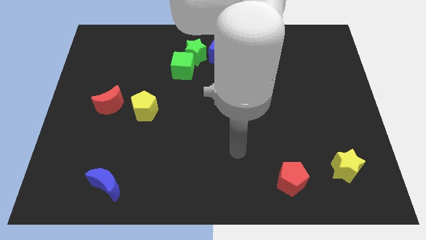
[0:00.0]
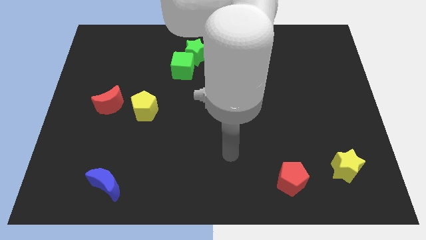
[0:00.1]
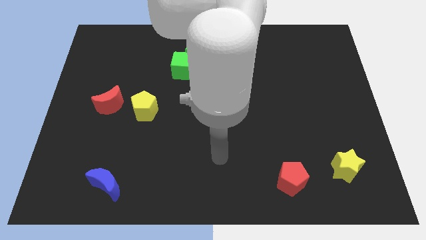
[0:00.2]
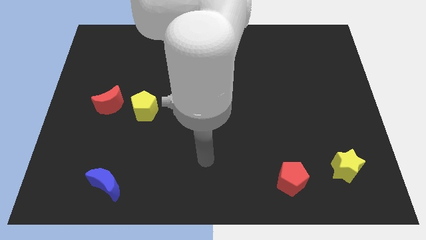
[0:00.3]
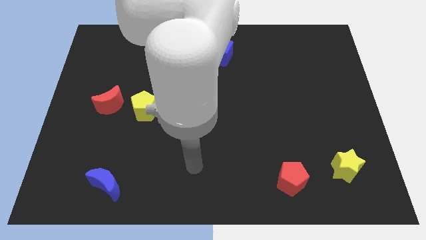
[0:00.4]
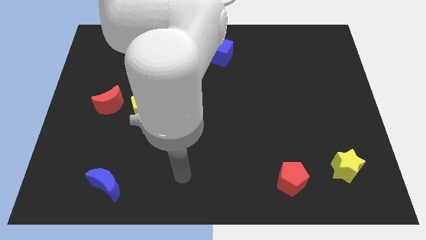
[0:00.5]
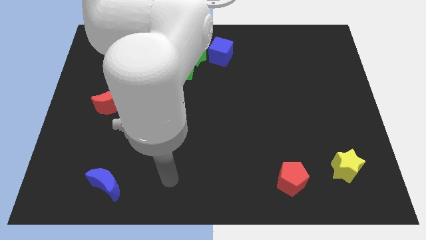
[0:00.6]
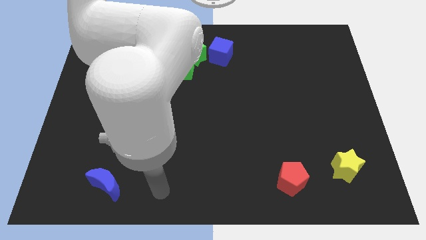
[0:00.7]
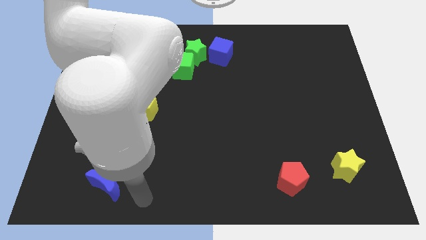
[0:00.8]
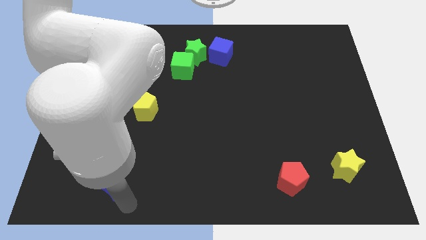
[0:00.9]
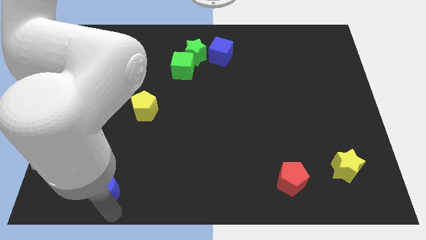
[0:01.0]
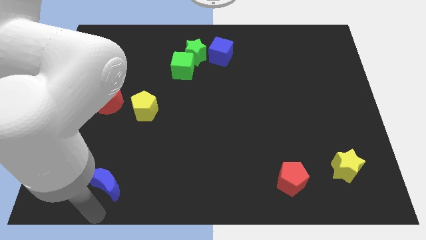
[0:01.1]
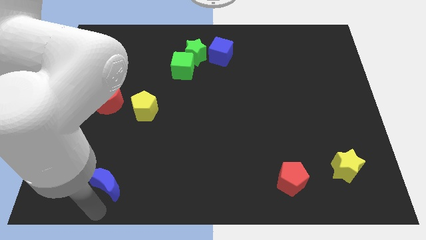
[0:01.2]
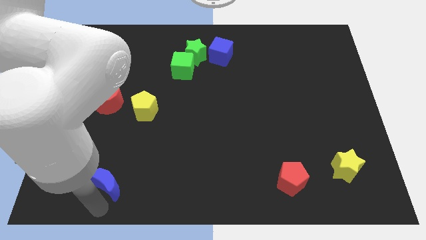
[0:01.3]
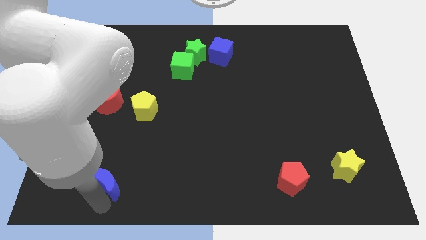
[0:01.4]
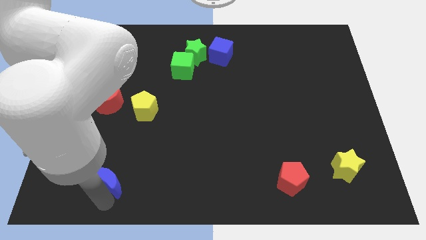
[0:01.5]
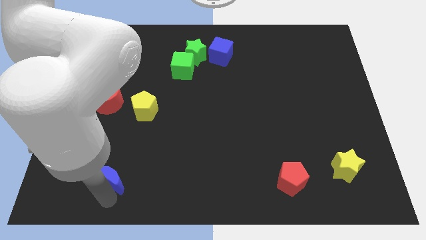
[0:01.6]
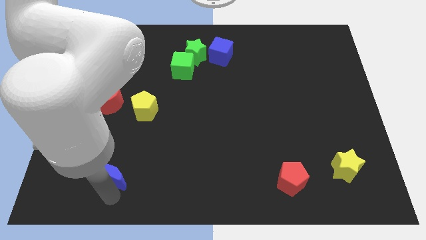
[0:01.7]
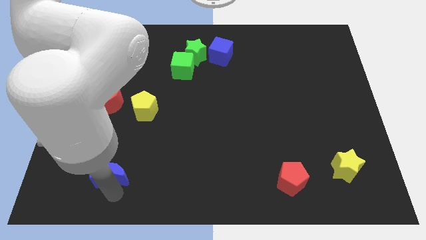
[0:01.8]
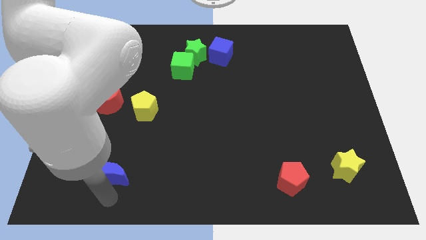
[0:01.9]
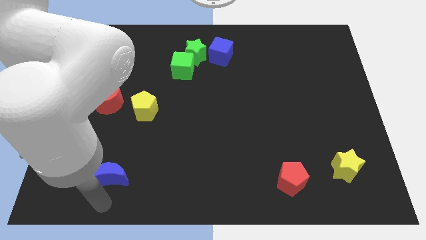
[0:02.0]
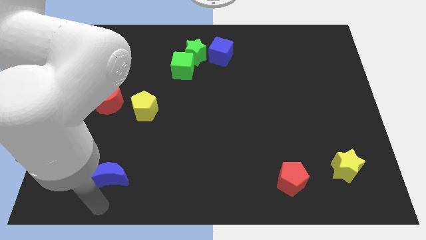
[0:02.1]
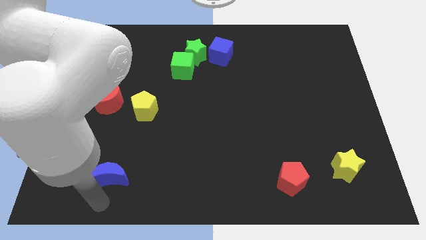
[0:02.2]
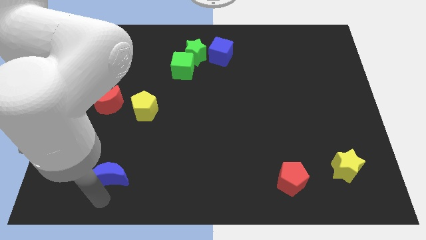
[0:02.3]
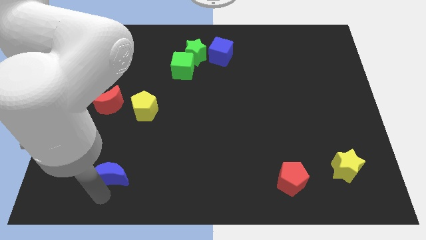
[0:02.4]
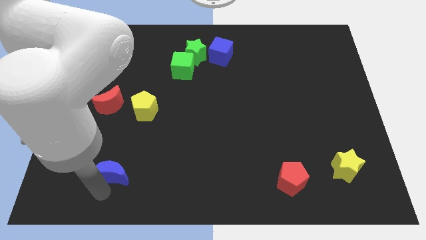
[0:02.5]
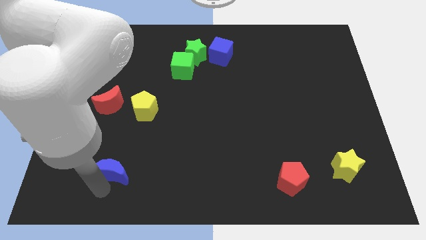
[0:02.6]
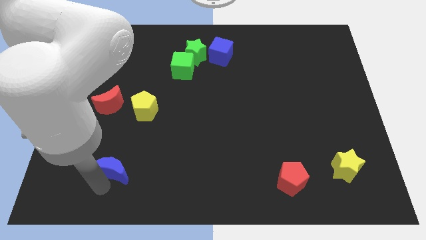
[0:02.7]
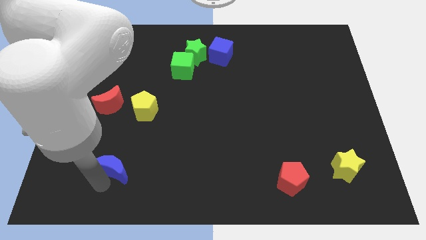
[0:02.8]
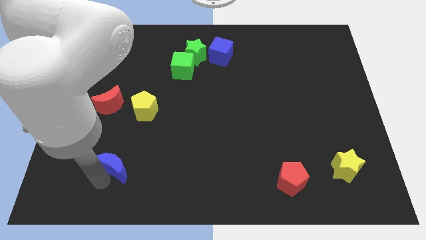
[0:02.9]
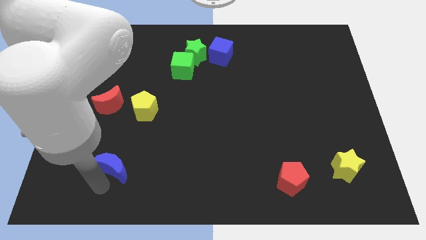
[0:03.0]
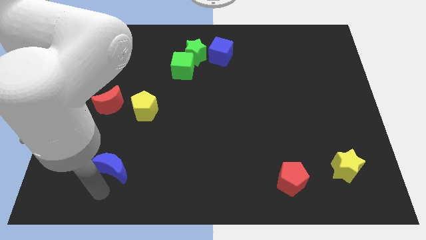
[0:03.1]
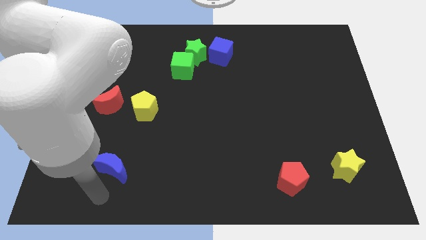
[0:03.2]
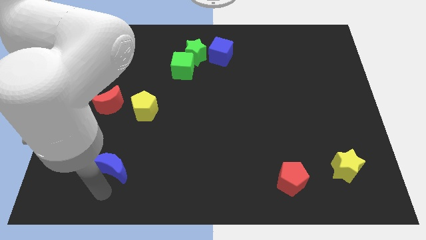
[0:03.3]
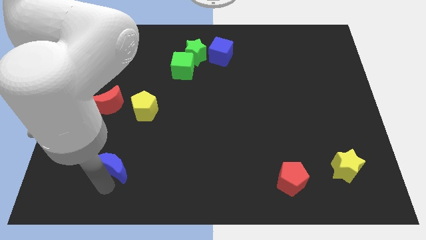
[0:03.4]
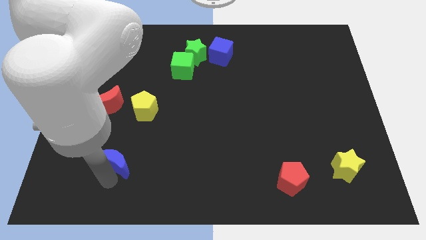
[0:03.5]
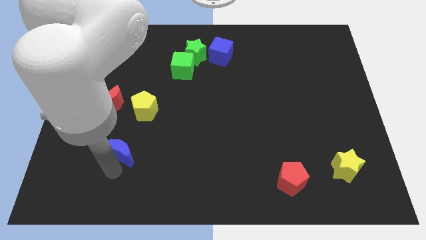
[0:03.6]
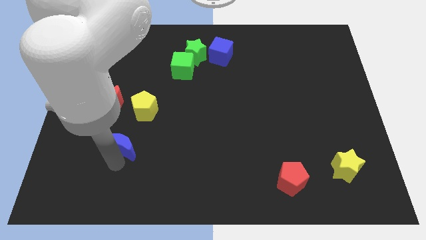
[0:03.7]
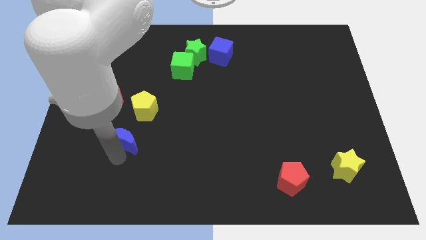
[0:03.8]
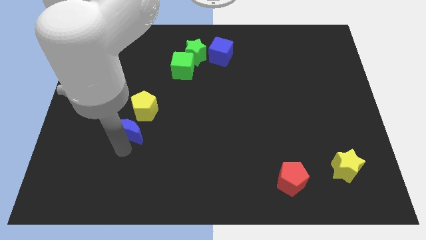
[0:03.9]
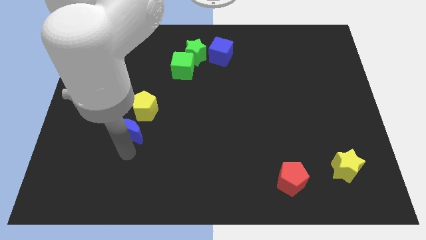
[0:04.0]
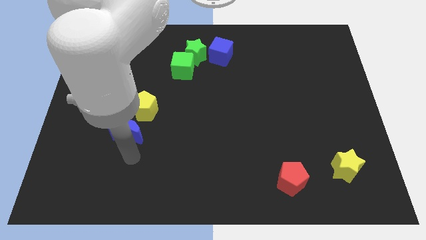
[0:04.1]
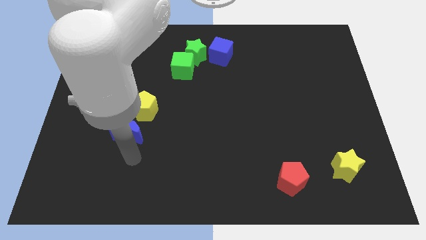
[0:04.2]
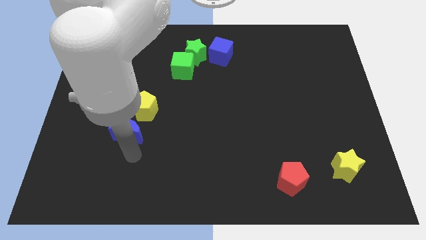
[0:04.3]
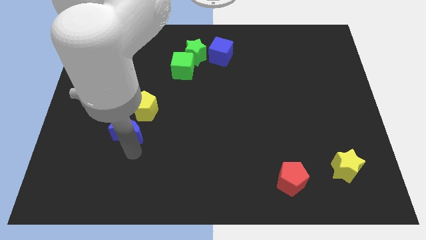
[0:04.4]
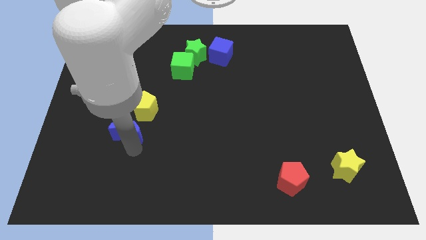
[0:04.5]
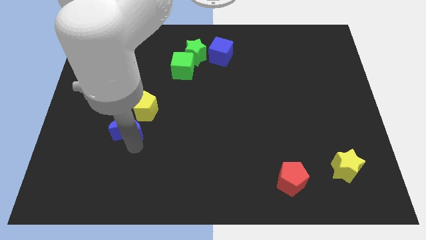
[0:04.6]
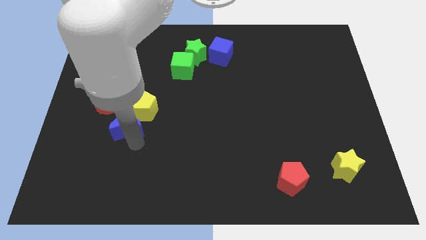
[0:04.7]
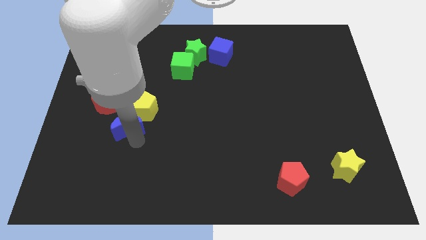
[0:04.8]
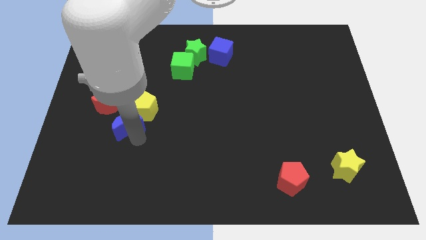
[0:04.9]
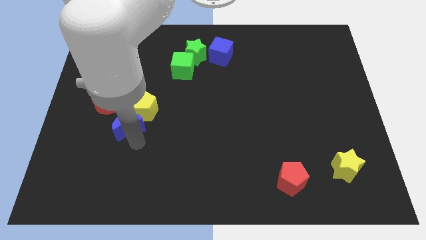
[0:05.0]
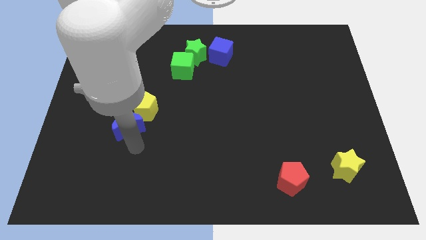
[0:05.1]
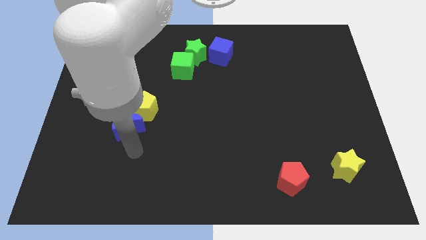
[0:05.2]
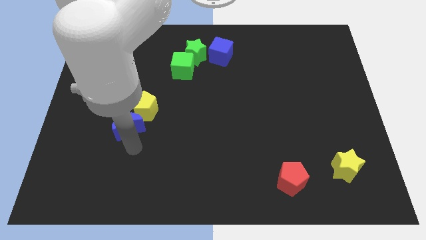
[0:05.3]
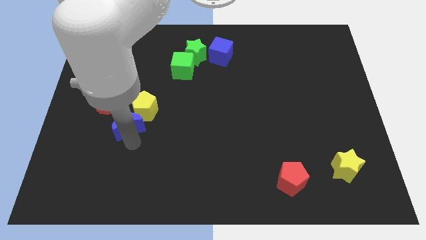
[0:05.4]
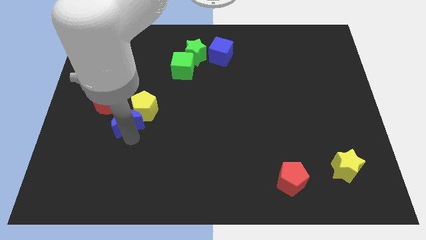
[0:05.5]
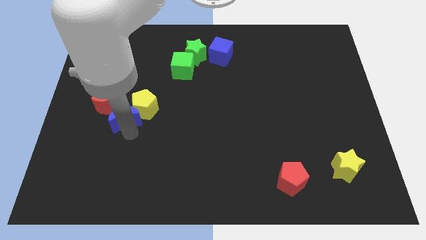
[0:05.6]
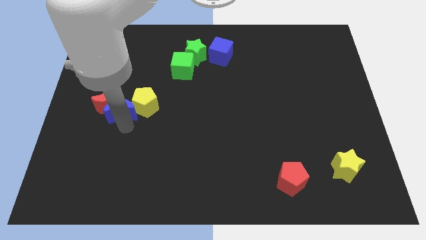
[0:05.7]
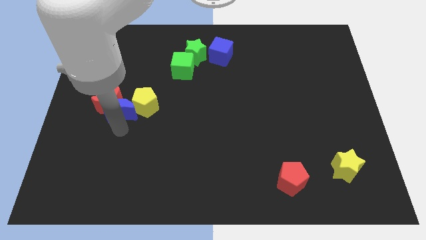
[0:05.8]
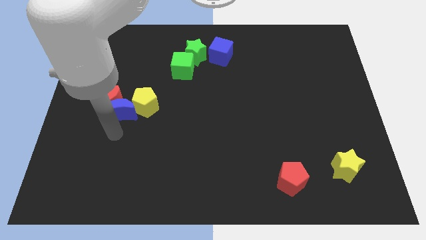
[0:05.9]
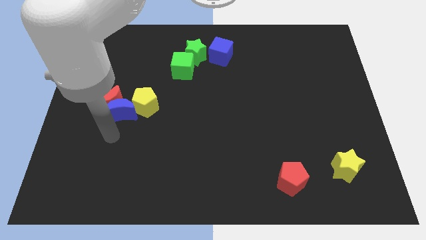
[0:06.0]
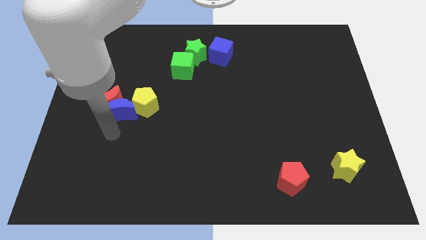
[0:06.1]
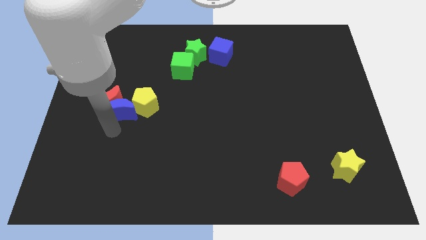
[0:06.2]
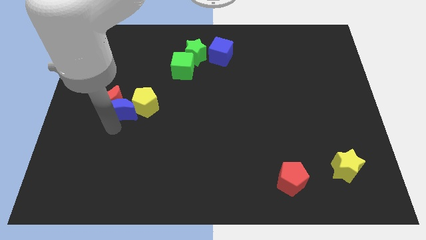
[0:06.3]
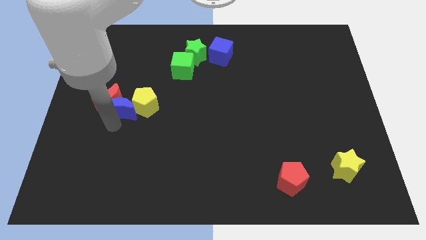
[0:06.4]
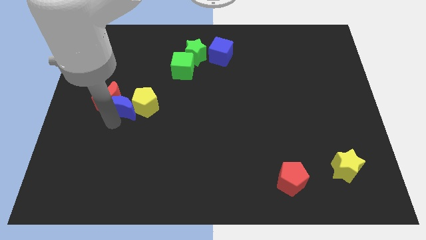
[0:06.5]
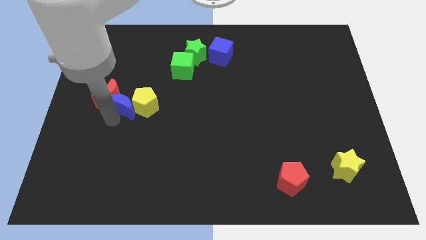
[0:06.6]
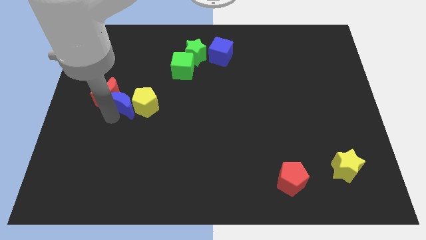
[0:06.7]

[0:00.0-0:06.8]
move the blue moon upwards

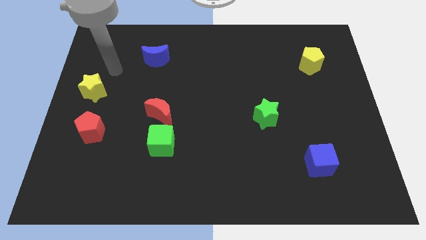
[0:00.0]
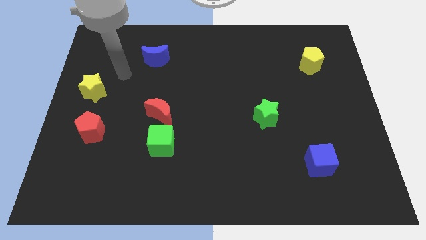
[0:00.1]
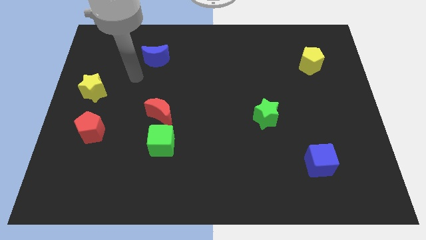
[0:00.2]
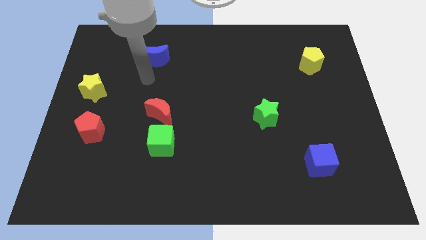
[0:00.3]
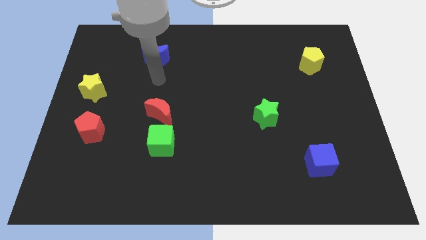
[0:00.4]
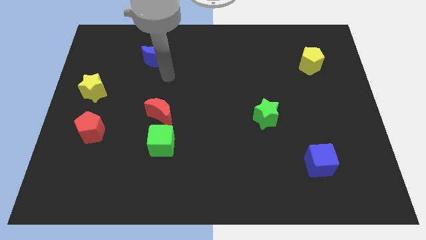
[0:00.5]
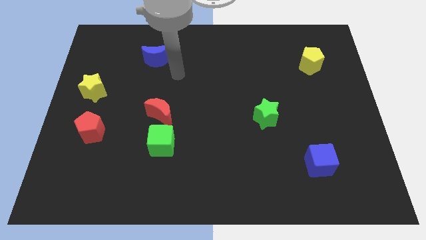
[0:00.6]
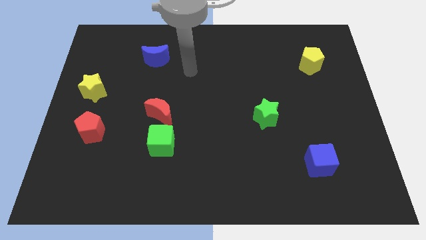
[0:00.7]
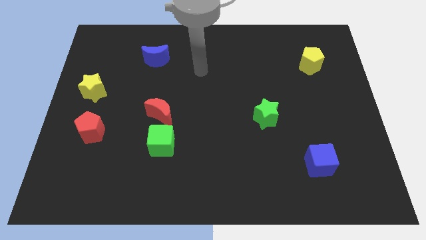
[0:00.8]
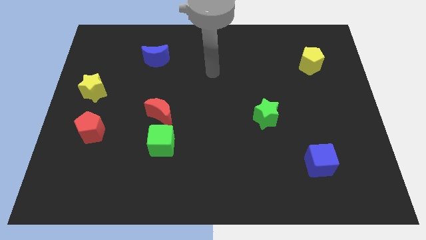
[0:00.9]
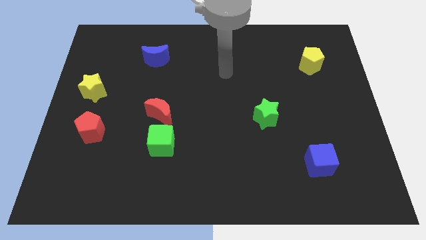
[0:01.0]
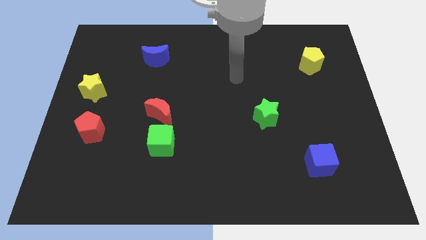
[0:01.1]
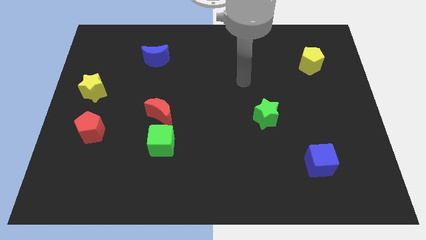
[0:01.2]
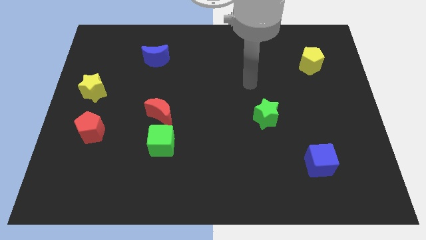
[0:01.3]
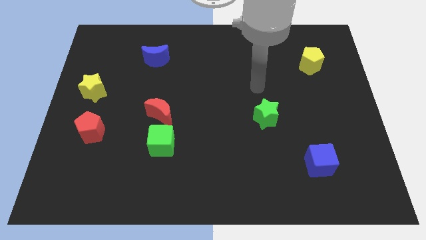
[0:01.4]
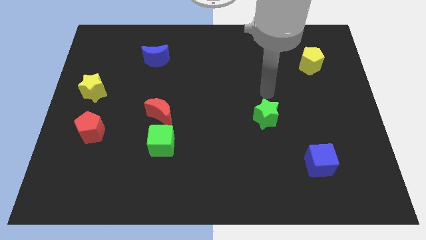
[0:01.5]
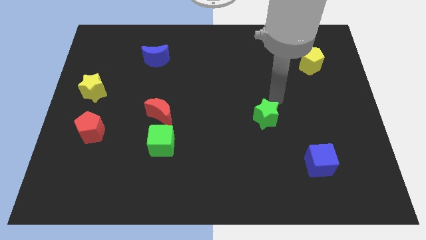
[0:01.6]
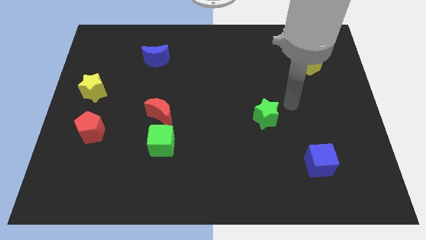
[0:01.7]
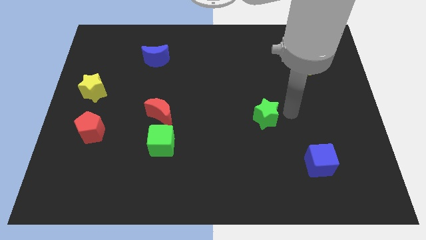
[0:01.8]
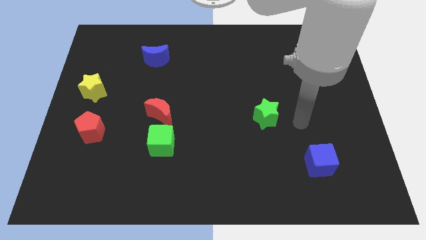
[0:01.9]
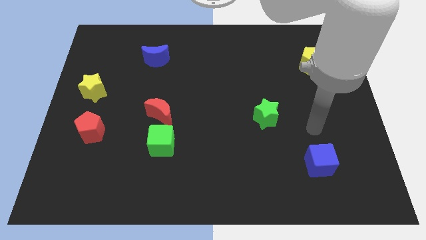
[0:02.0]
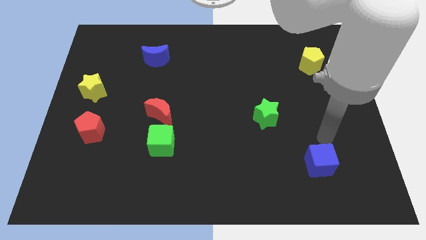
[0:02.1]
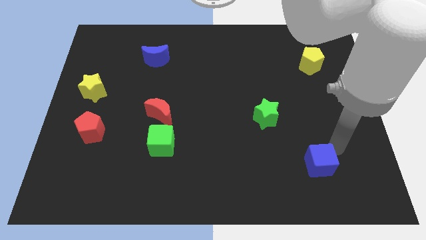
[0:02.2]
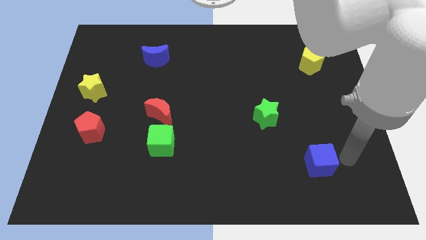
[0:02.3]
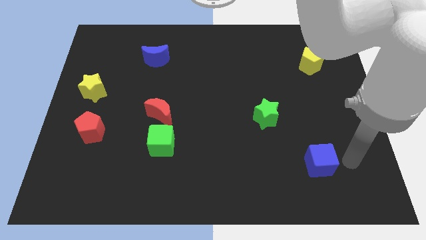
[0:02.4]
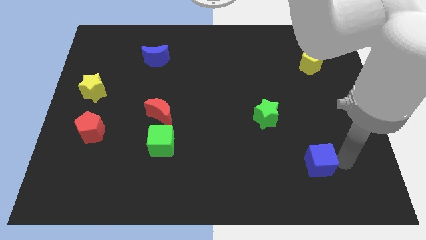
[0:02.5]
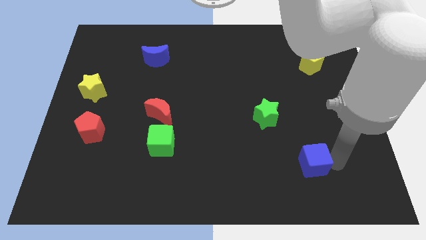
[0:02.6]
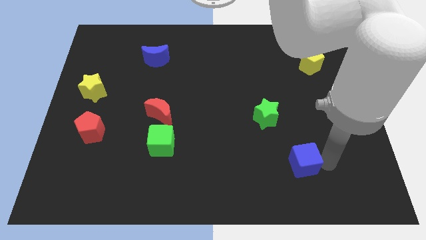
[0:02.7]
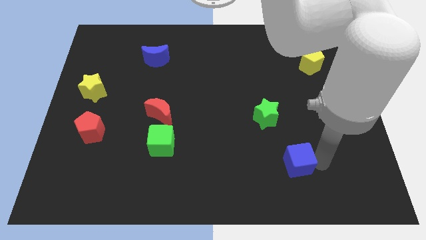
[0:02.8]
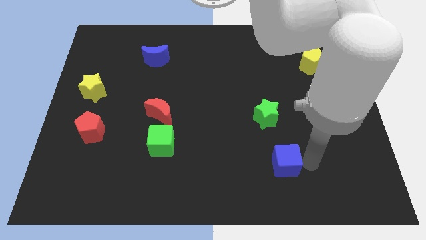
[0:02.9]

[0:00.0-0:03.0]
slide the blue cube a little bit to the left
